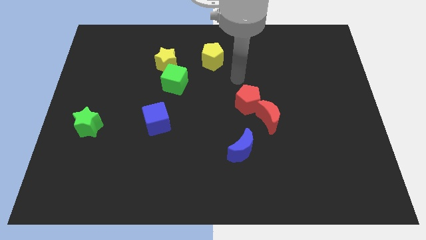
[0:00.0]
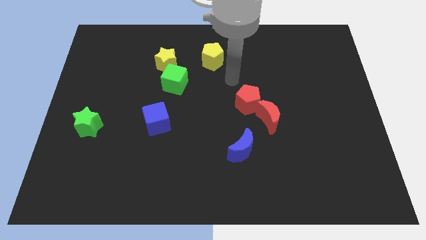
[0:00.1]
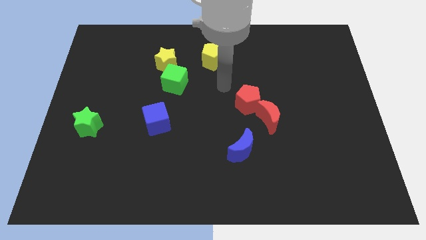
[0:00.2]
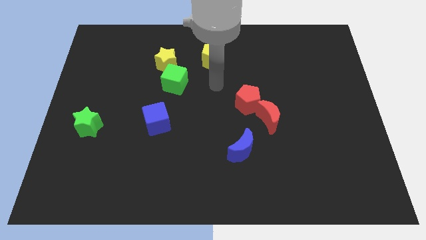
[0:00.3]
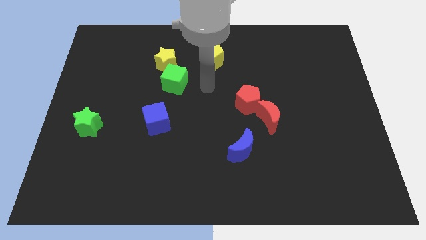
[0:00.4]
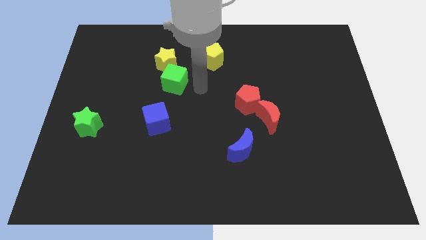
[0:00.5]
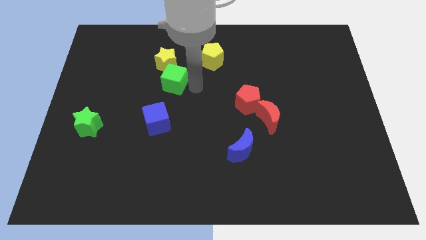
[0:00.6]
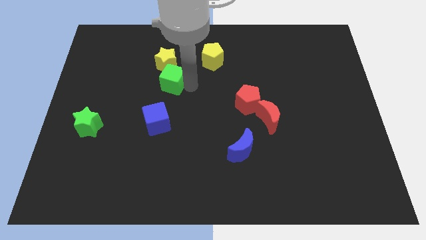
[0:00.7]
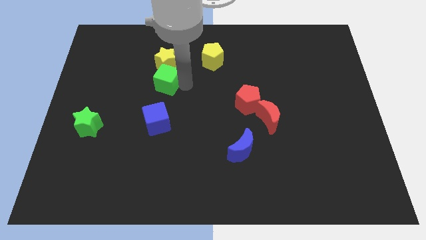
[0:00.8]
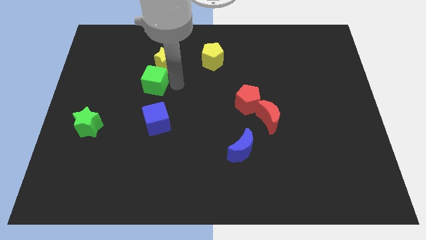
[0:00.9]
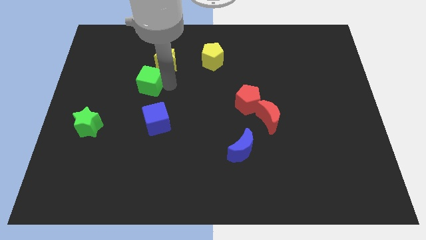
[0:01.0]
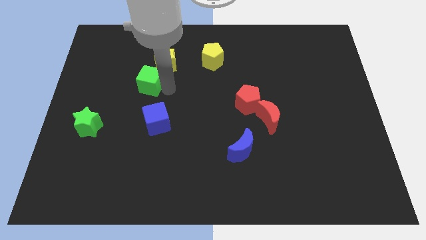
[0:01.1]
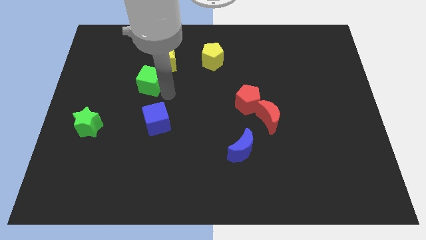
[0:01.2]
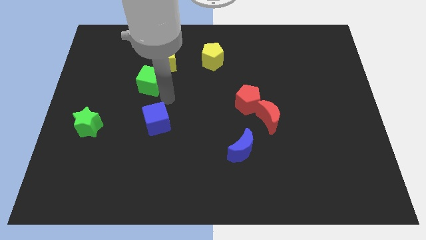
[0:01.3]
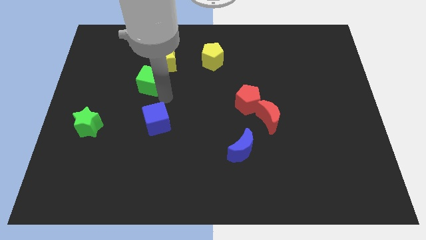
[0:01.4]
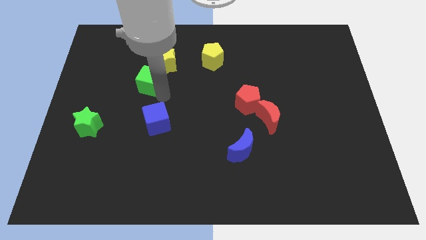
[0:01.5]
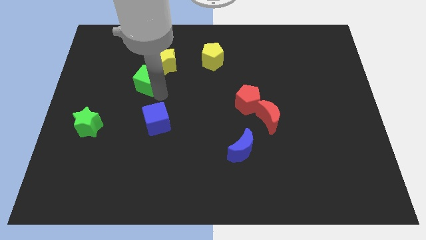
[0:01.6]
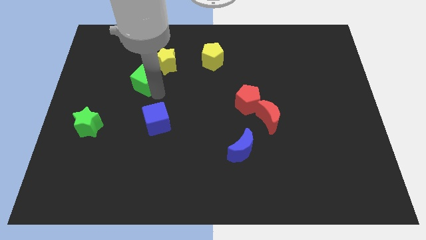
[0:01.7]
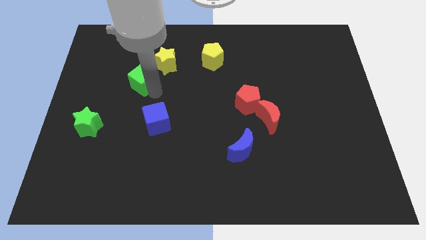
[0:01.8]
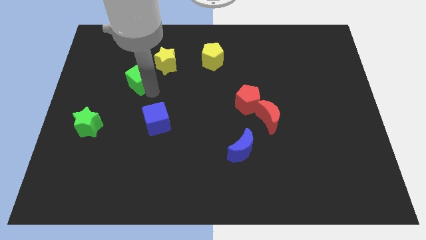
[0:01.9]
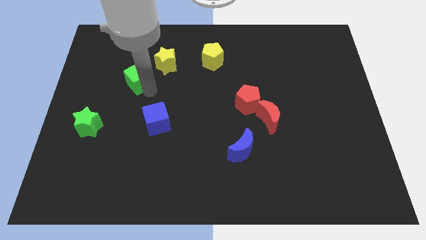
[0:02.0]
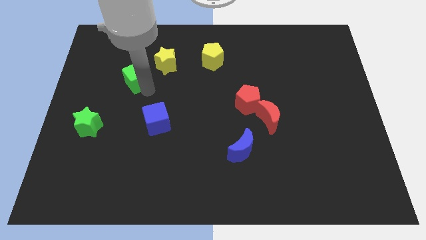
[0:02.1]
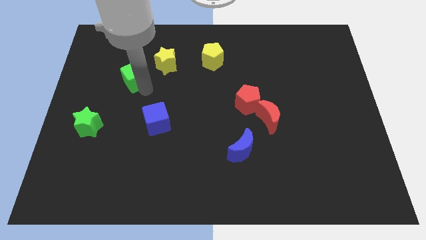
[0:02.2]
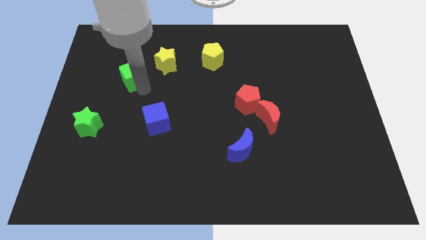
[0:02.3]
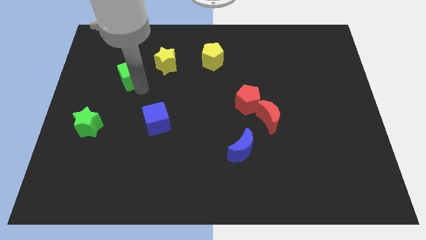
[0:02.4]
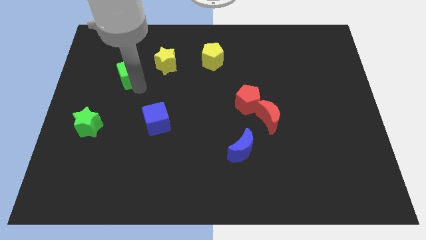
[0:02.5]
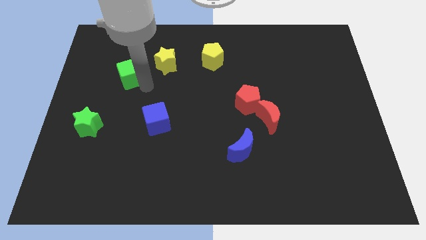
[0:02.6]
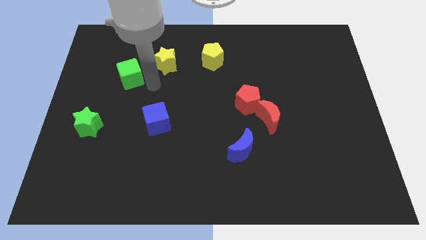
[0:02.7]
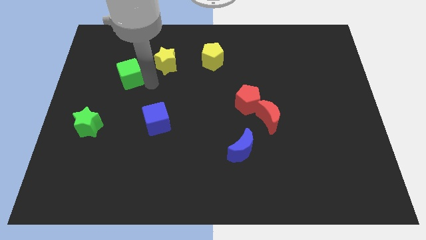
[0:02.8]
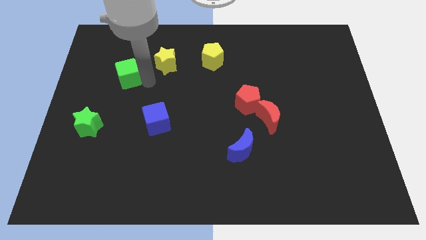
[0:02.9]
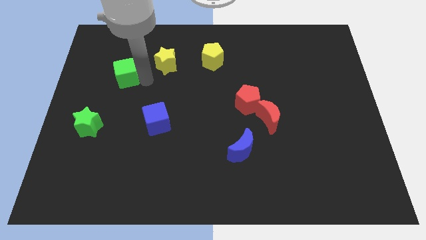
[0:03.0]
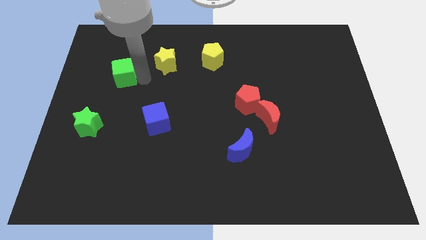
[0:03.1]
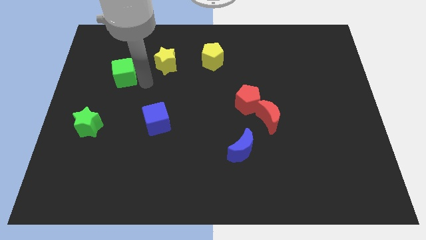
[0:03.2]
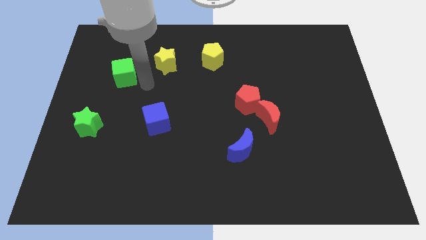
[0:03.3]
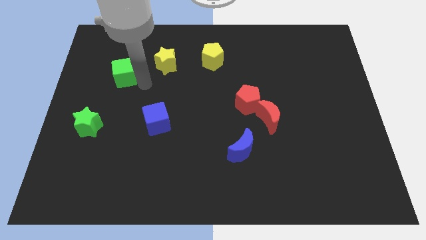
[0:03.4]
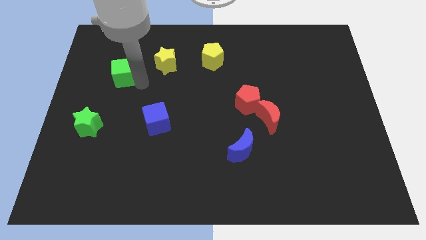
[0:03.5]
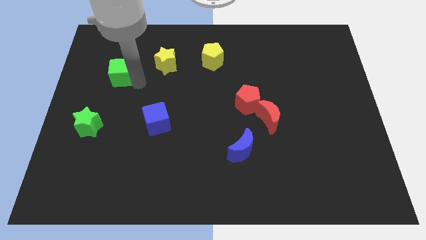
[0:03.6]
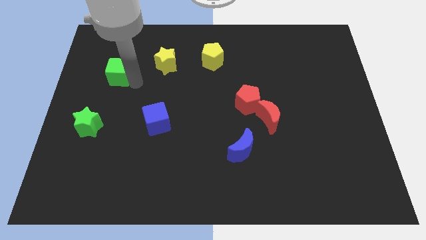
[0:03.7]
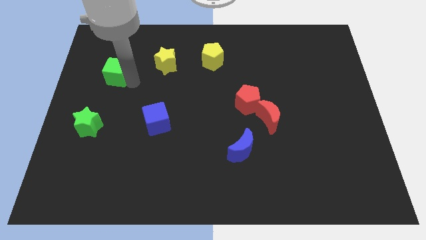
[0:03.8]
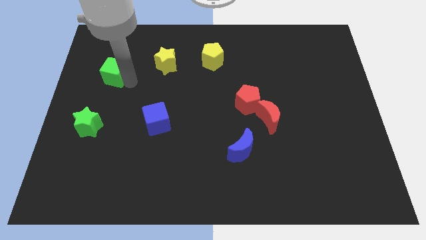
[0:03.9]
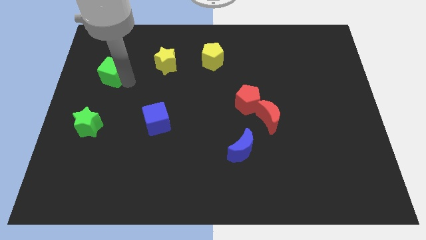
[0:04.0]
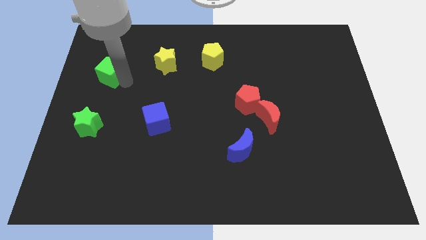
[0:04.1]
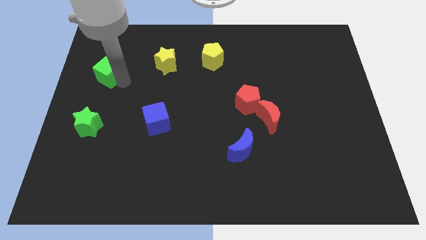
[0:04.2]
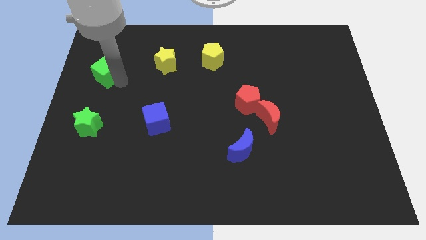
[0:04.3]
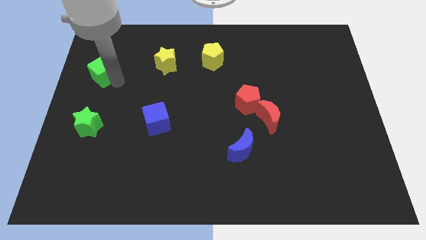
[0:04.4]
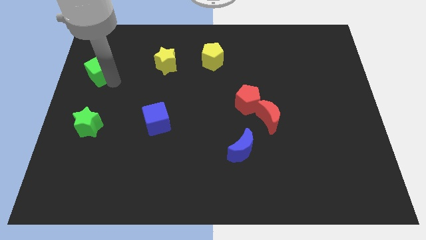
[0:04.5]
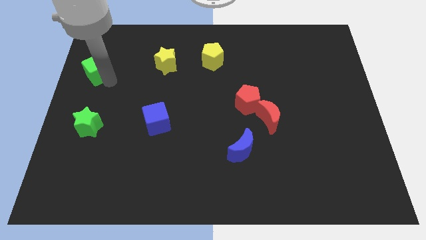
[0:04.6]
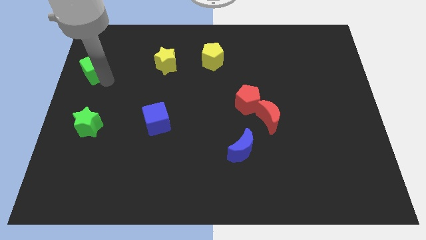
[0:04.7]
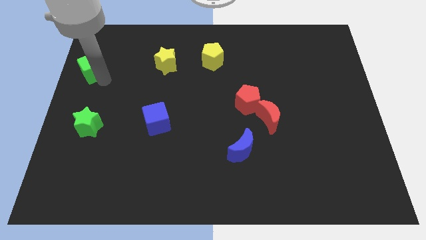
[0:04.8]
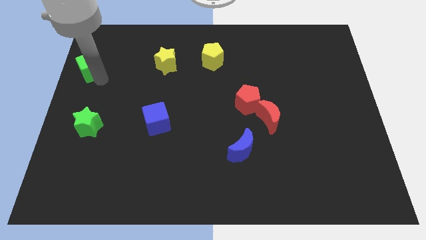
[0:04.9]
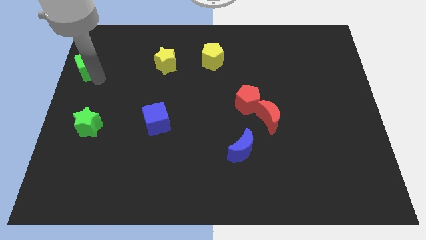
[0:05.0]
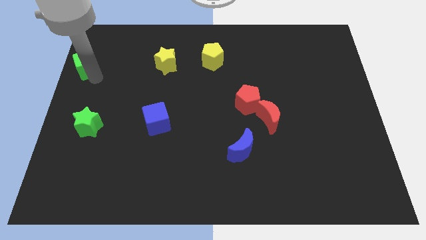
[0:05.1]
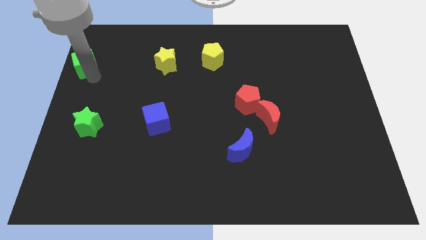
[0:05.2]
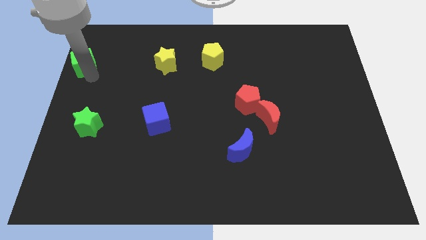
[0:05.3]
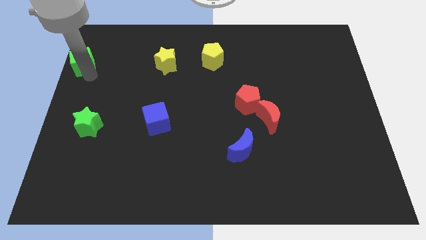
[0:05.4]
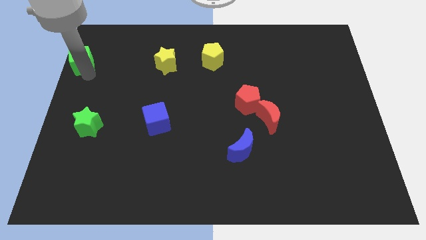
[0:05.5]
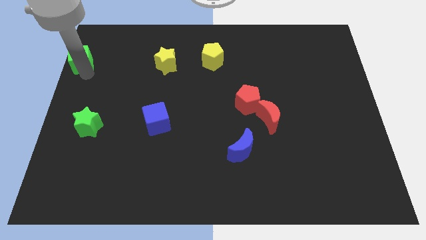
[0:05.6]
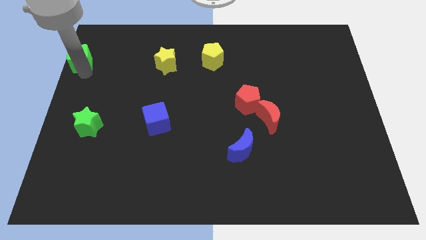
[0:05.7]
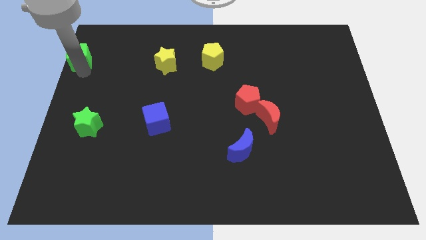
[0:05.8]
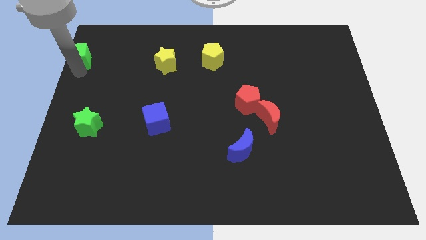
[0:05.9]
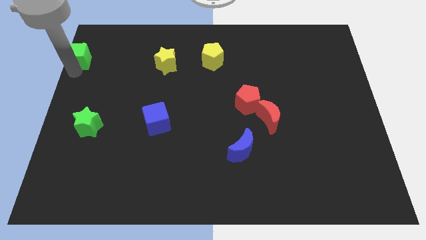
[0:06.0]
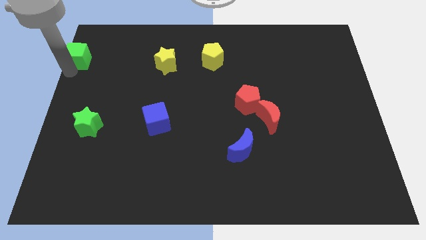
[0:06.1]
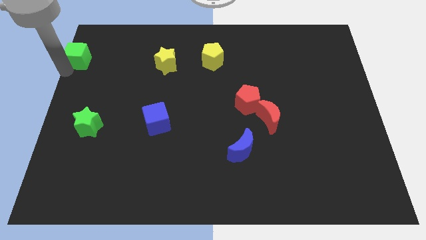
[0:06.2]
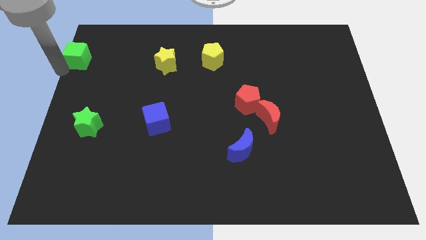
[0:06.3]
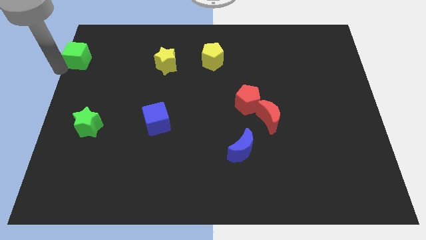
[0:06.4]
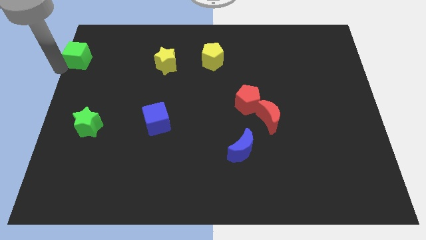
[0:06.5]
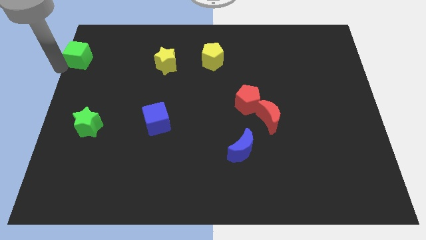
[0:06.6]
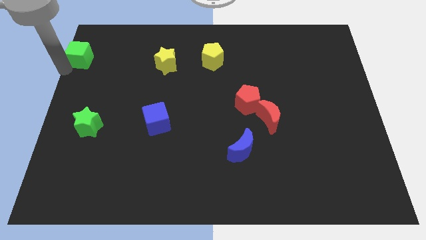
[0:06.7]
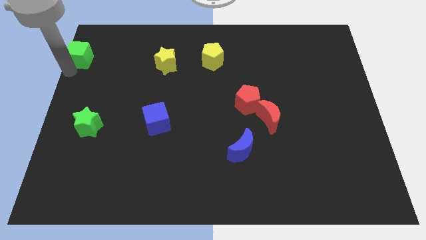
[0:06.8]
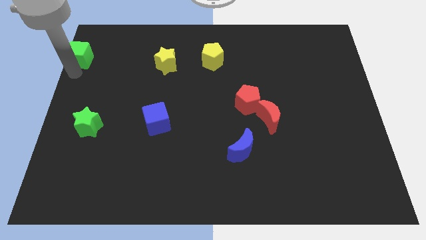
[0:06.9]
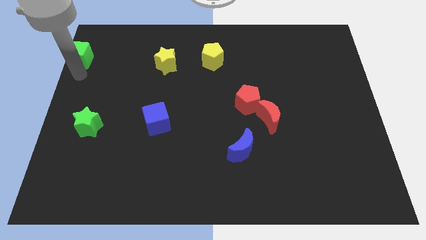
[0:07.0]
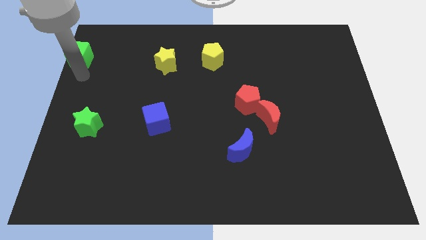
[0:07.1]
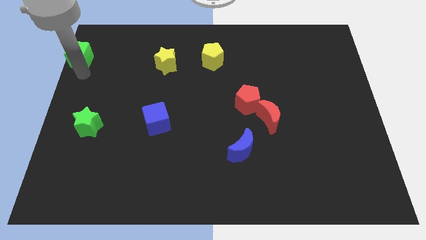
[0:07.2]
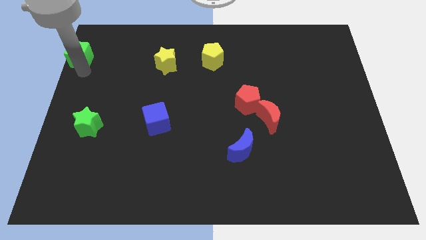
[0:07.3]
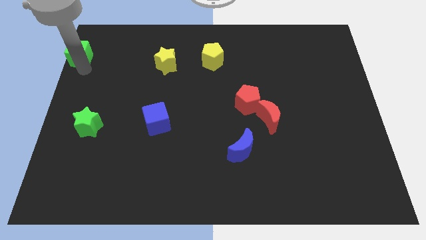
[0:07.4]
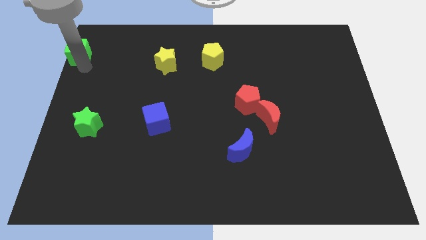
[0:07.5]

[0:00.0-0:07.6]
move the green cube to the top left
